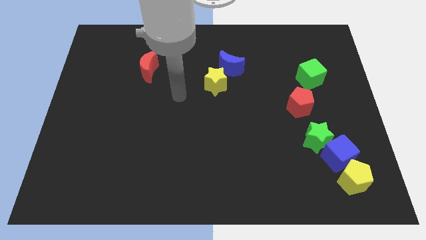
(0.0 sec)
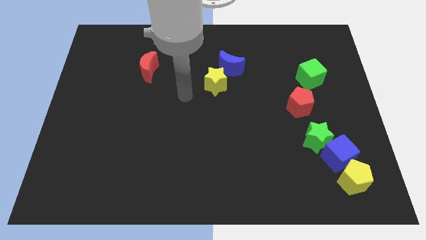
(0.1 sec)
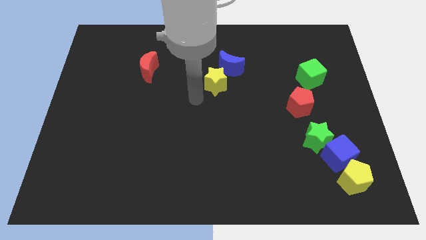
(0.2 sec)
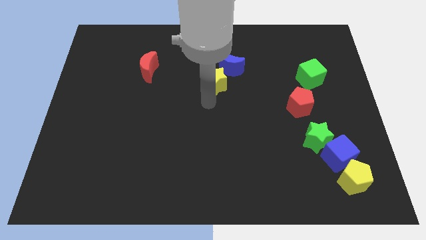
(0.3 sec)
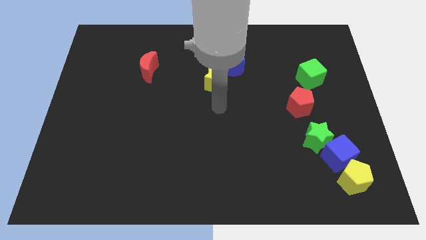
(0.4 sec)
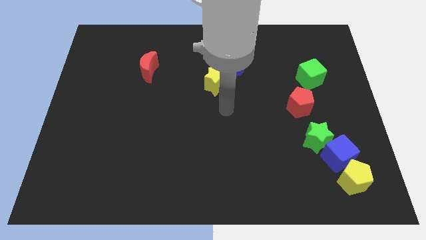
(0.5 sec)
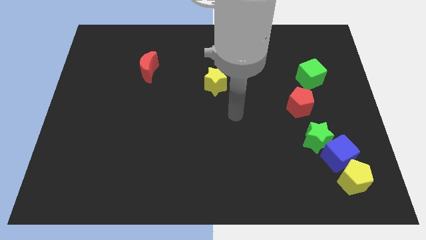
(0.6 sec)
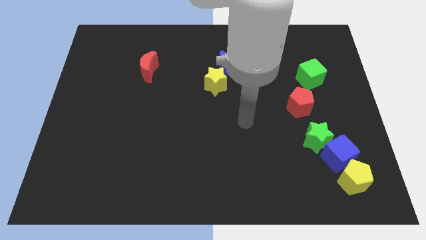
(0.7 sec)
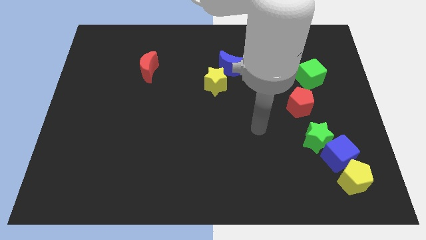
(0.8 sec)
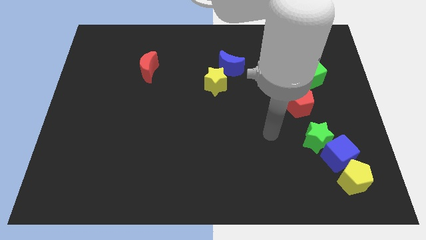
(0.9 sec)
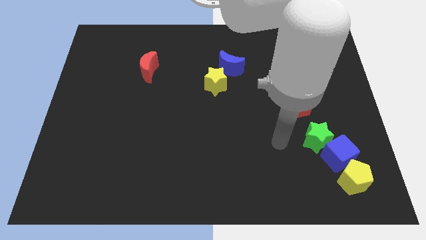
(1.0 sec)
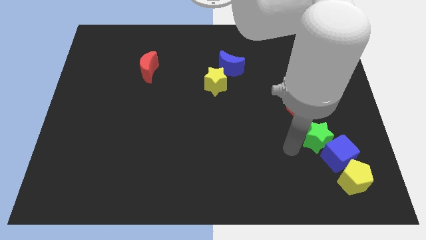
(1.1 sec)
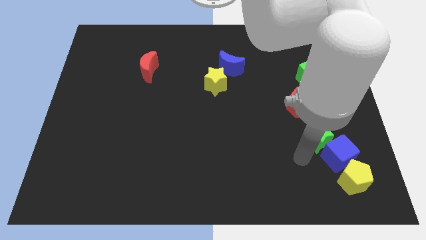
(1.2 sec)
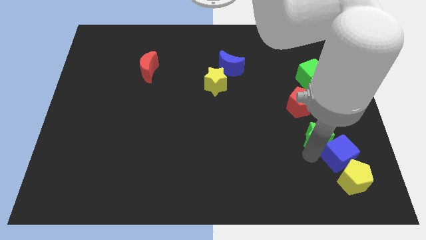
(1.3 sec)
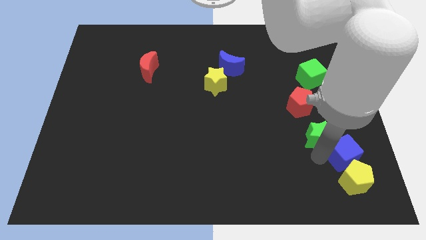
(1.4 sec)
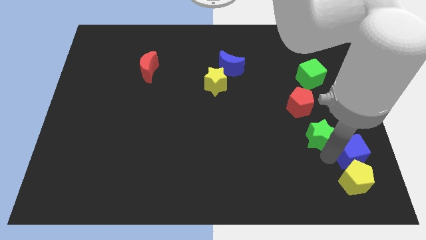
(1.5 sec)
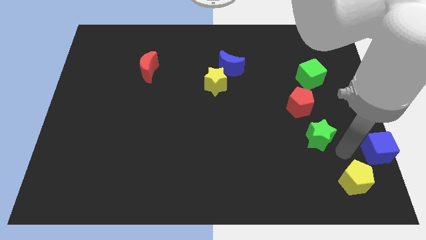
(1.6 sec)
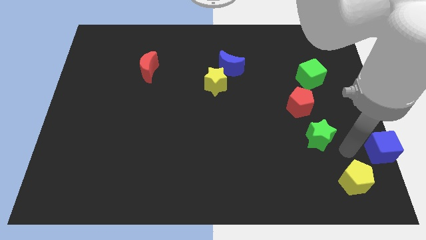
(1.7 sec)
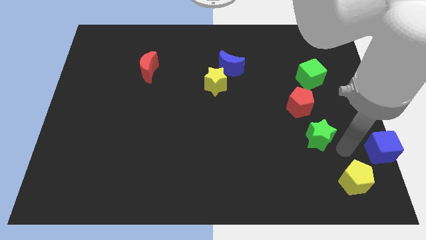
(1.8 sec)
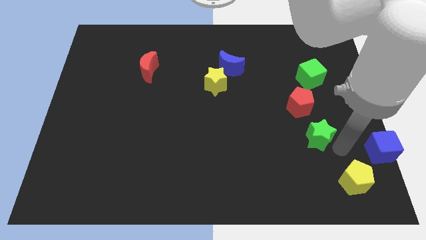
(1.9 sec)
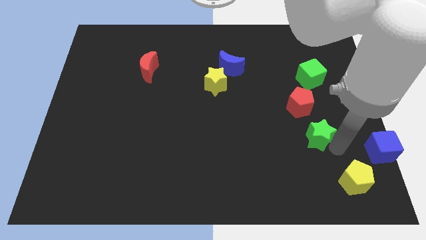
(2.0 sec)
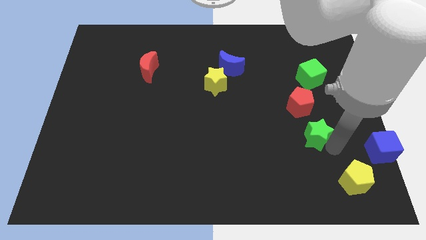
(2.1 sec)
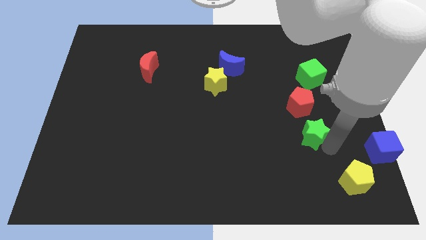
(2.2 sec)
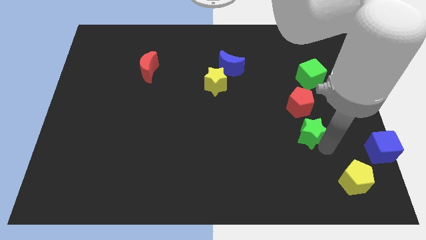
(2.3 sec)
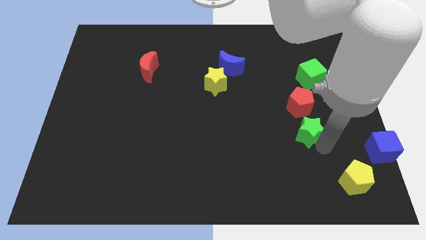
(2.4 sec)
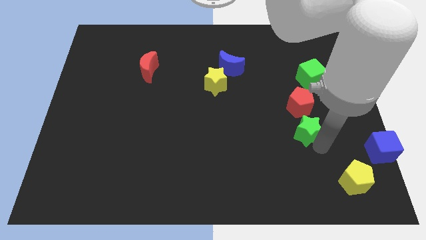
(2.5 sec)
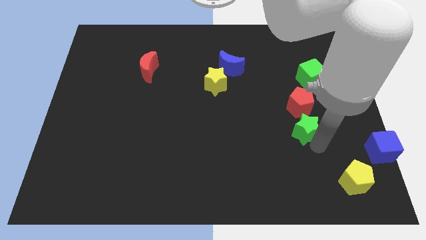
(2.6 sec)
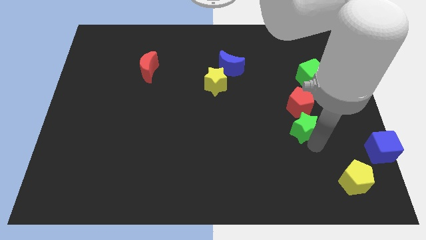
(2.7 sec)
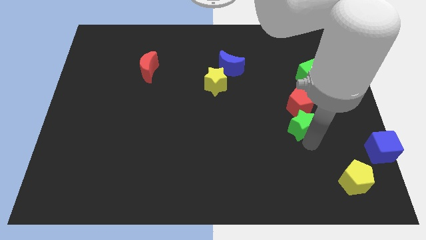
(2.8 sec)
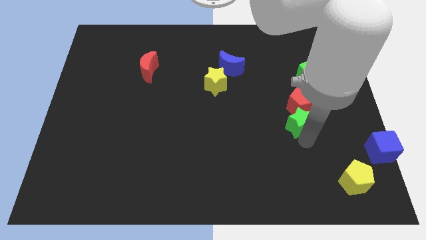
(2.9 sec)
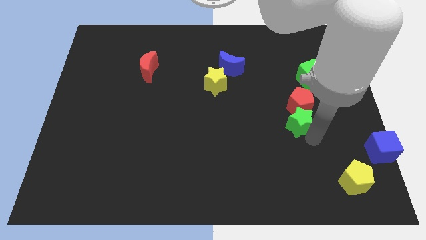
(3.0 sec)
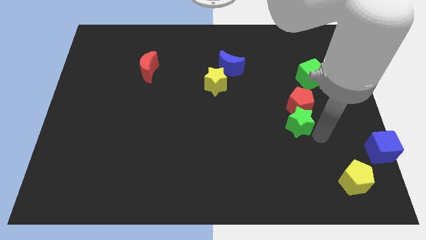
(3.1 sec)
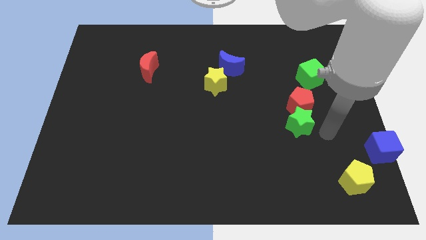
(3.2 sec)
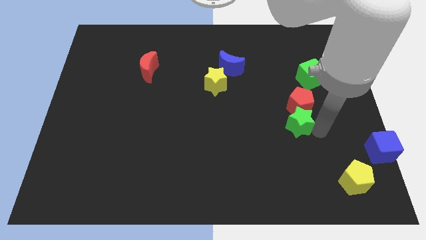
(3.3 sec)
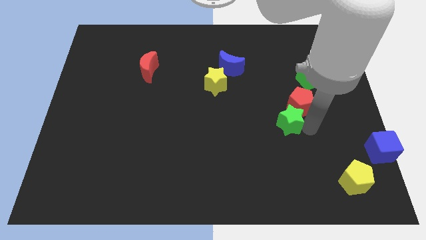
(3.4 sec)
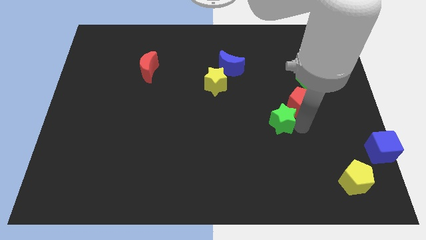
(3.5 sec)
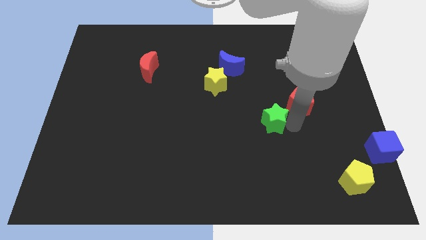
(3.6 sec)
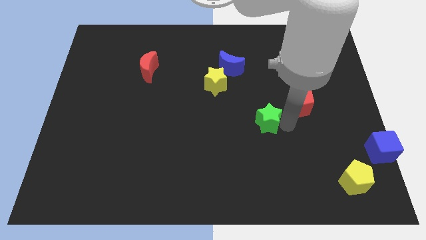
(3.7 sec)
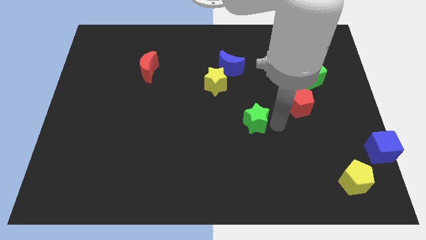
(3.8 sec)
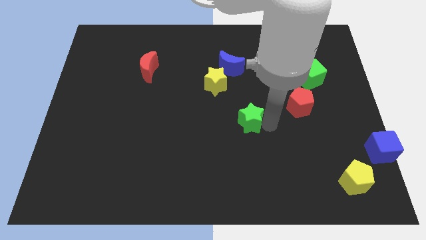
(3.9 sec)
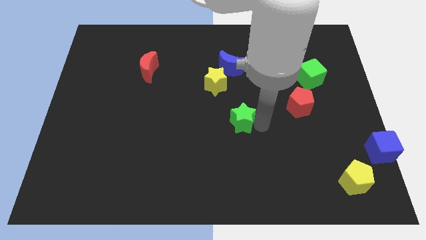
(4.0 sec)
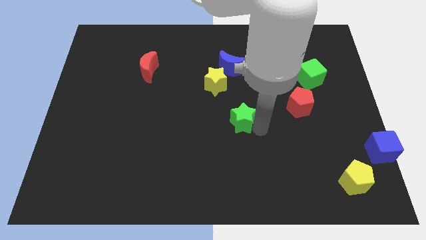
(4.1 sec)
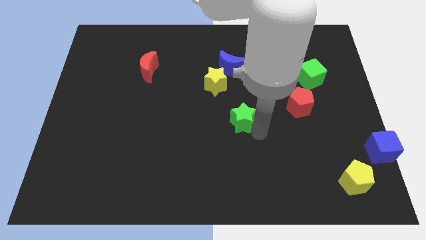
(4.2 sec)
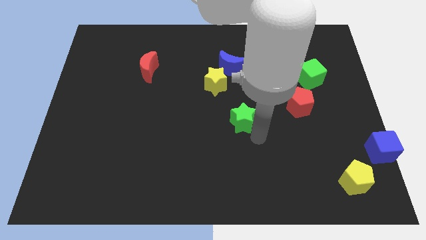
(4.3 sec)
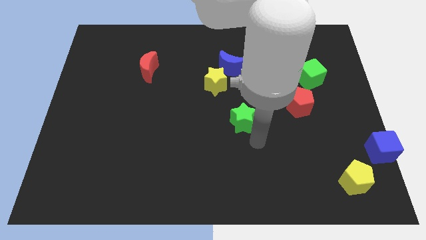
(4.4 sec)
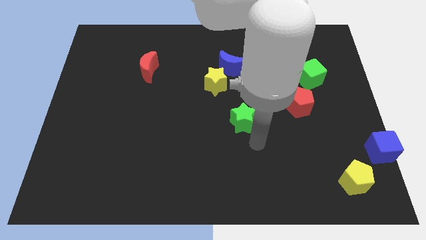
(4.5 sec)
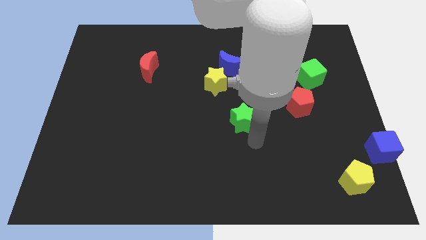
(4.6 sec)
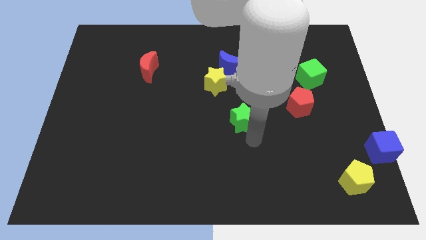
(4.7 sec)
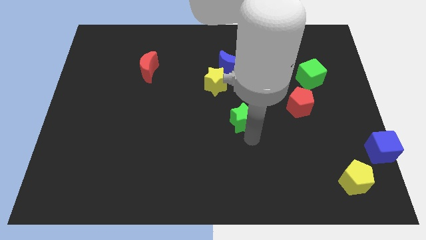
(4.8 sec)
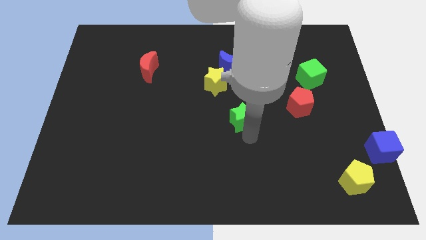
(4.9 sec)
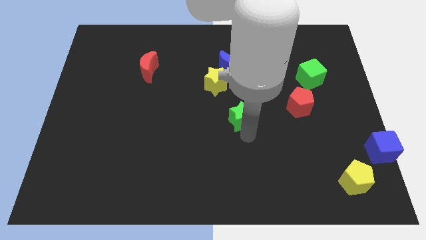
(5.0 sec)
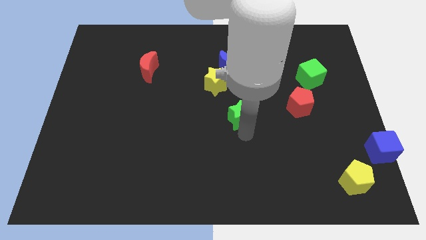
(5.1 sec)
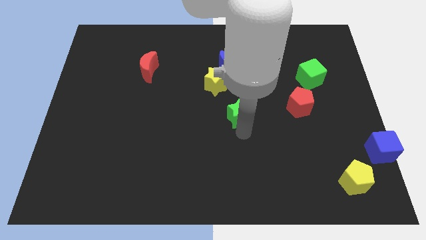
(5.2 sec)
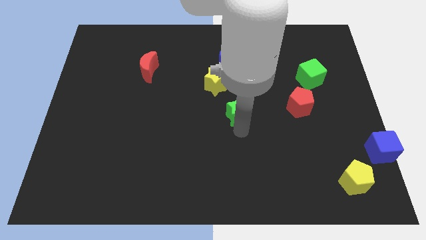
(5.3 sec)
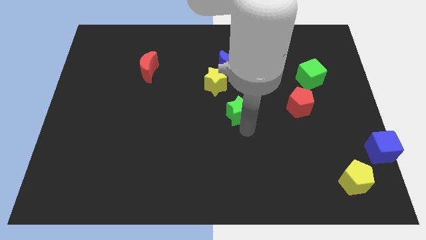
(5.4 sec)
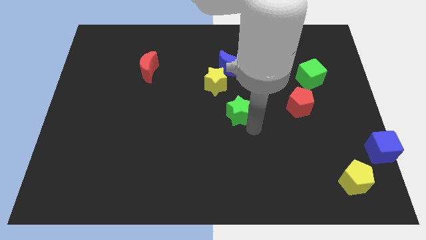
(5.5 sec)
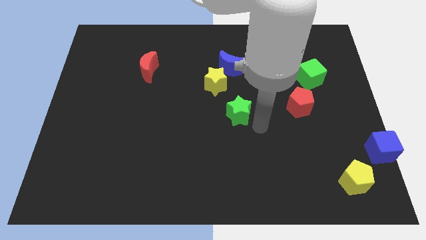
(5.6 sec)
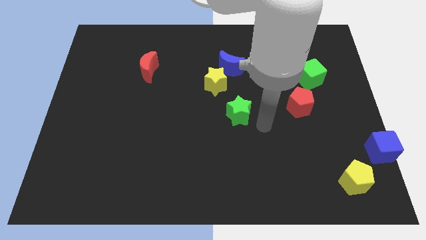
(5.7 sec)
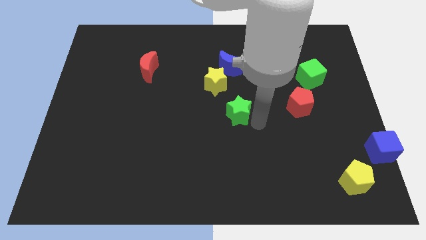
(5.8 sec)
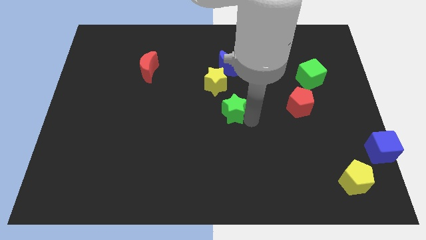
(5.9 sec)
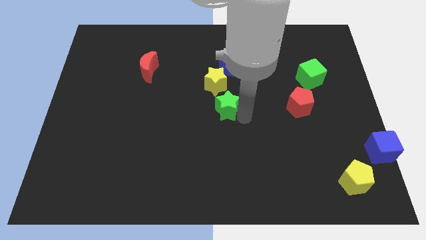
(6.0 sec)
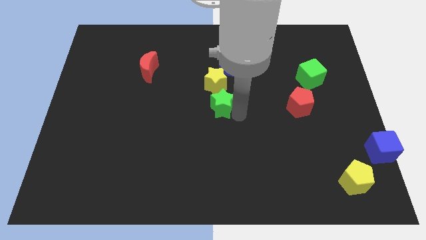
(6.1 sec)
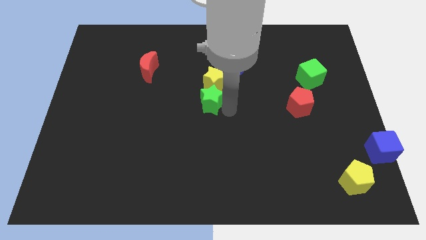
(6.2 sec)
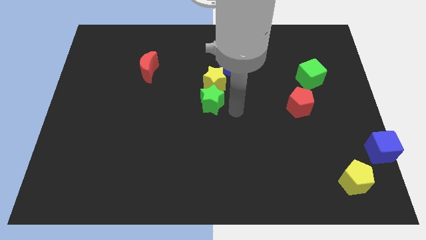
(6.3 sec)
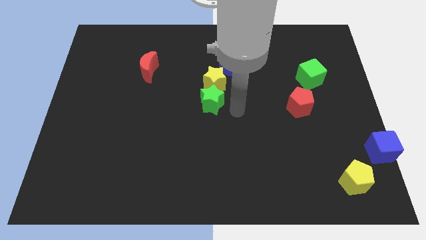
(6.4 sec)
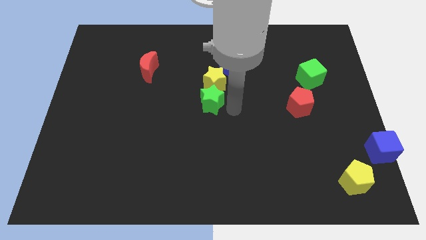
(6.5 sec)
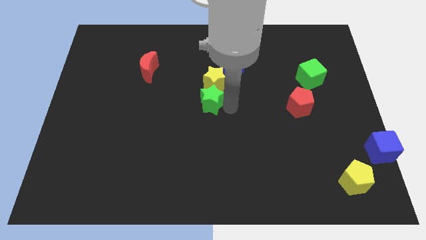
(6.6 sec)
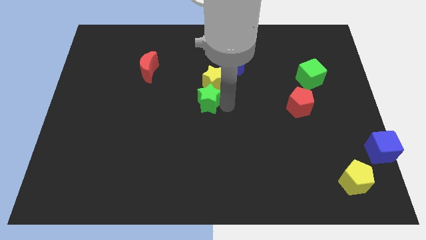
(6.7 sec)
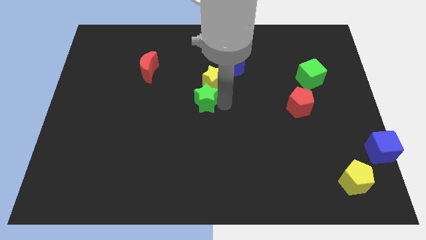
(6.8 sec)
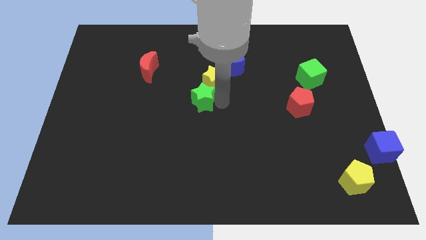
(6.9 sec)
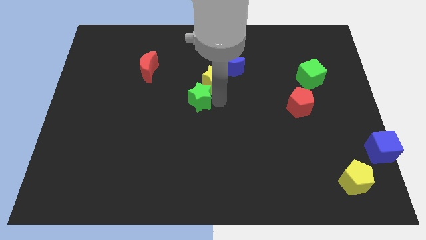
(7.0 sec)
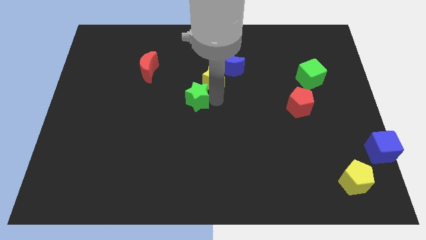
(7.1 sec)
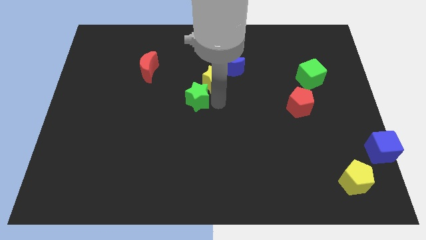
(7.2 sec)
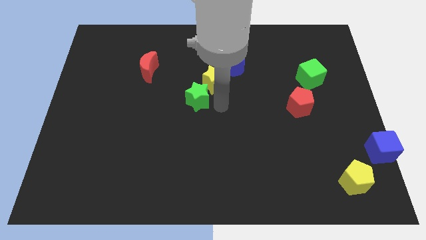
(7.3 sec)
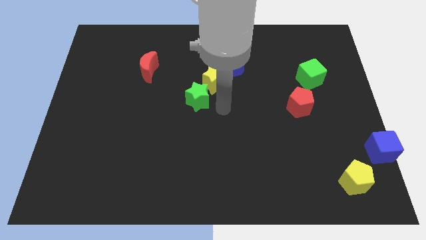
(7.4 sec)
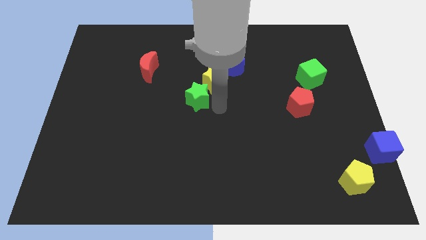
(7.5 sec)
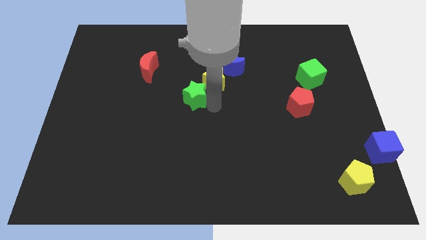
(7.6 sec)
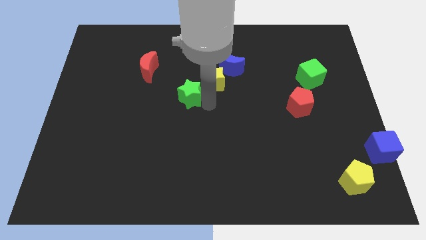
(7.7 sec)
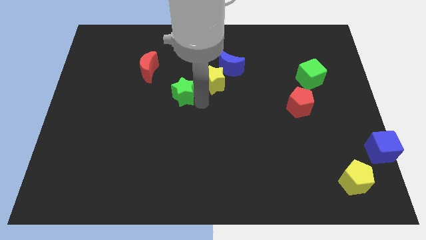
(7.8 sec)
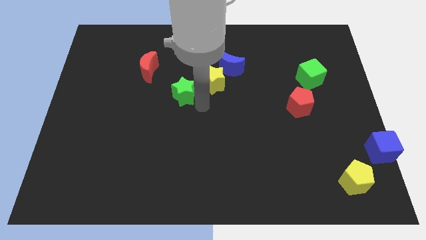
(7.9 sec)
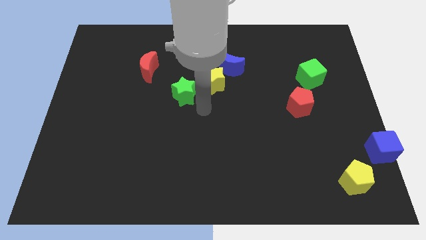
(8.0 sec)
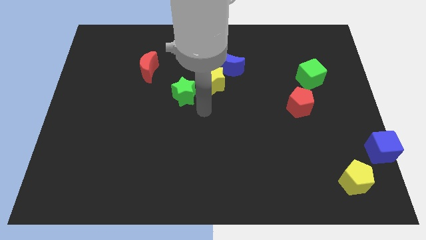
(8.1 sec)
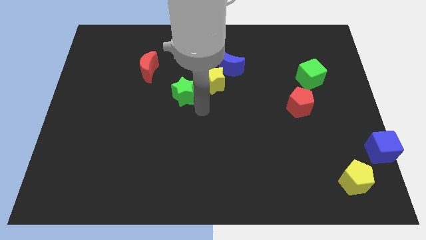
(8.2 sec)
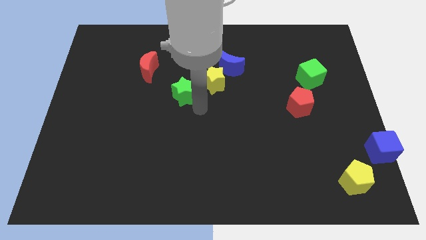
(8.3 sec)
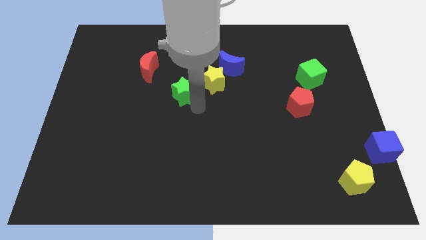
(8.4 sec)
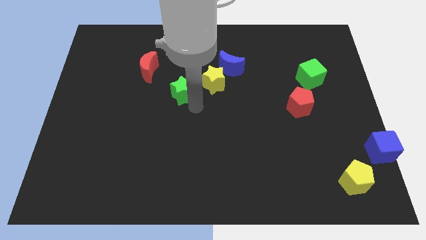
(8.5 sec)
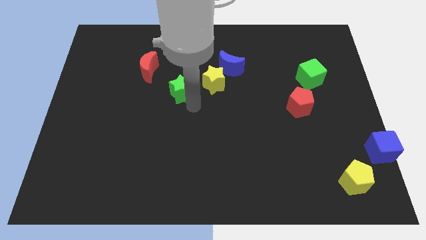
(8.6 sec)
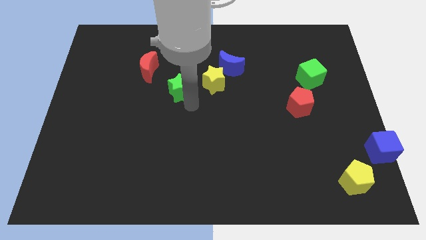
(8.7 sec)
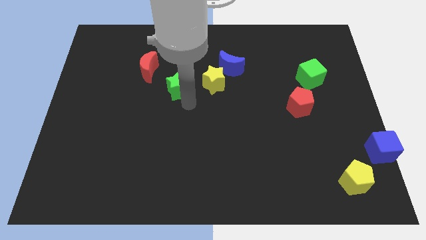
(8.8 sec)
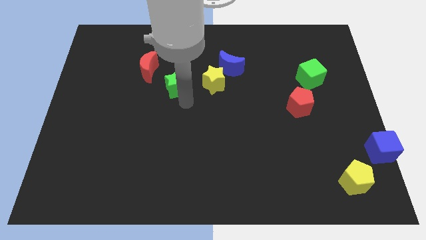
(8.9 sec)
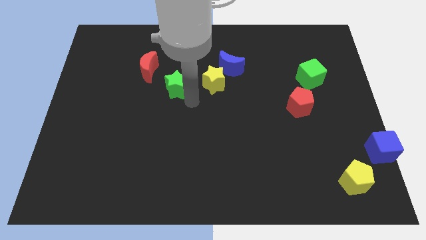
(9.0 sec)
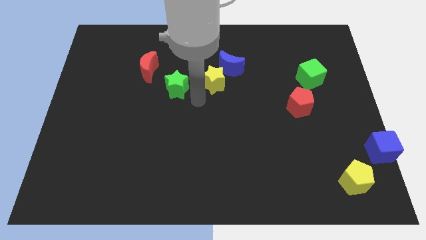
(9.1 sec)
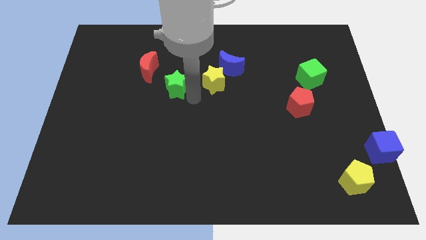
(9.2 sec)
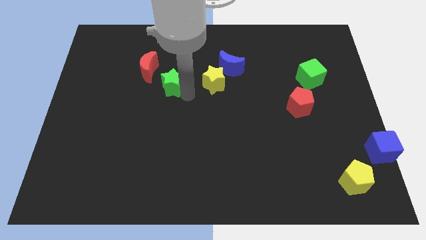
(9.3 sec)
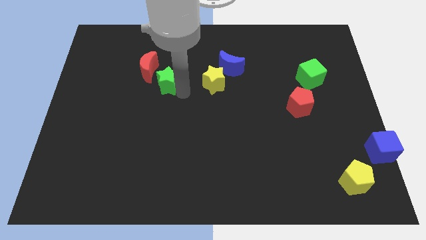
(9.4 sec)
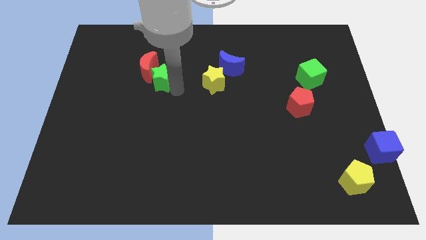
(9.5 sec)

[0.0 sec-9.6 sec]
put the green star close to the red moon
